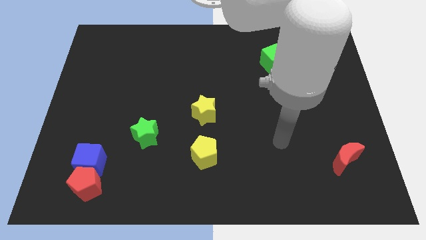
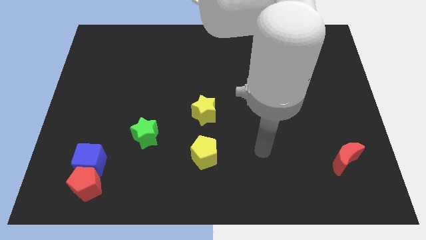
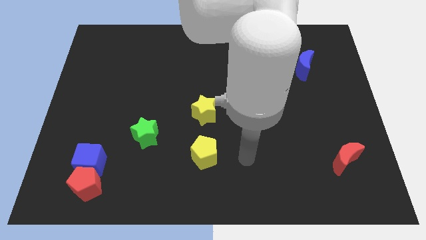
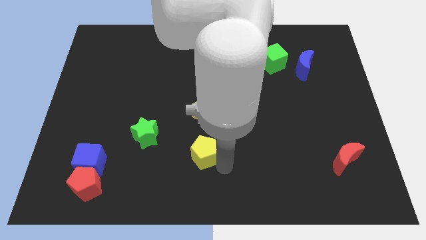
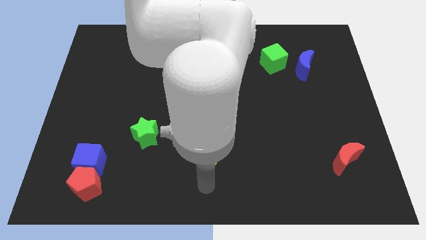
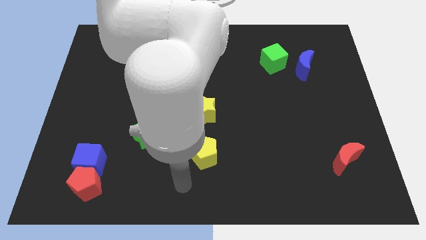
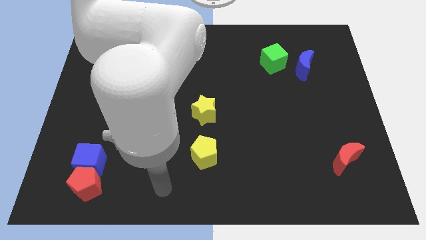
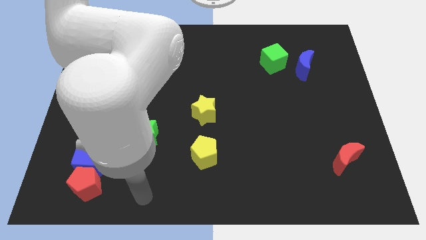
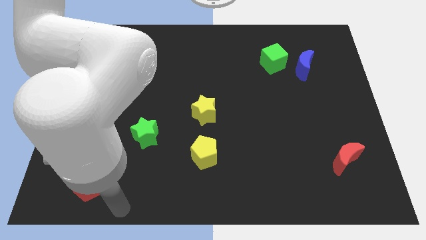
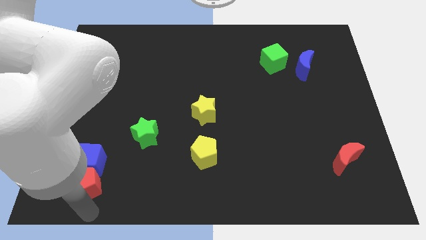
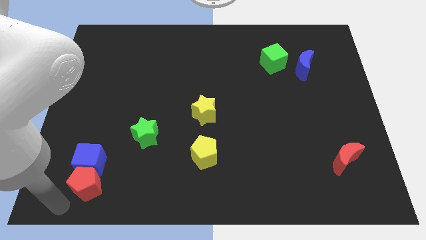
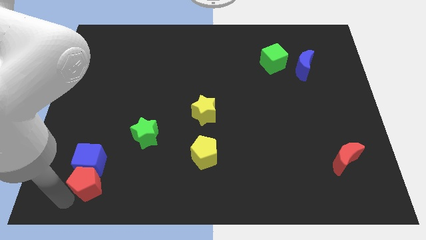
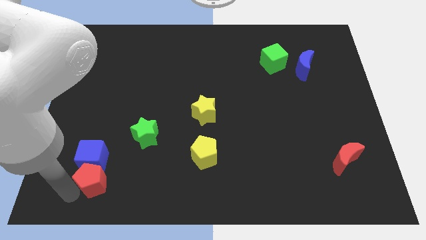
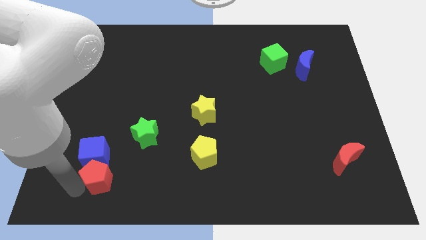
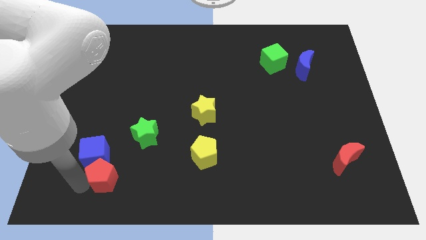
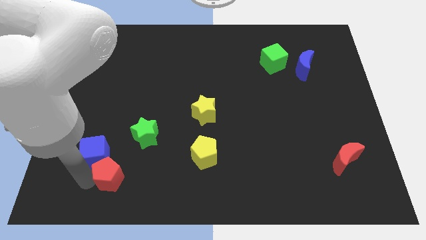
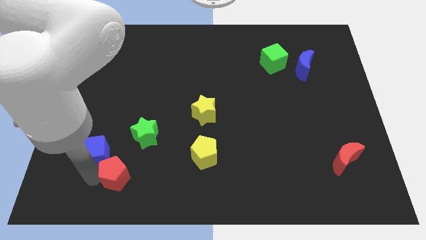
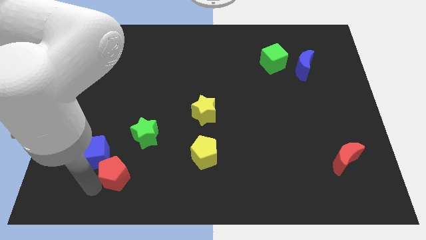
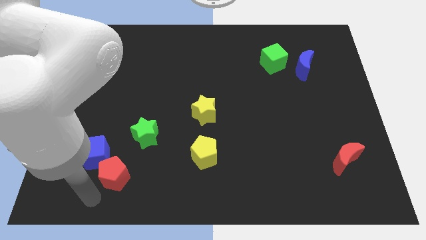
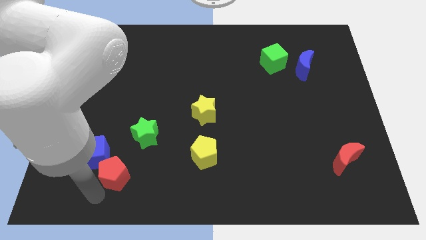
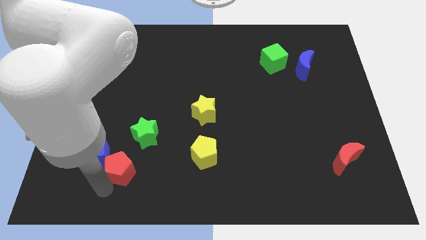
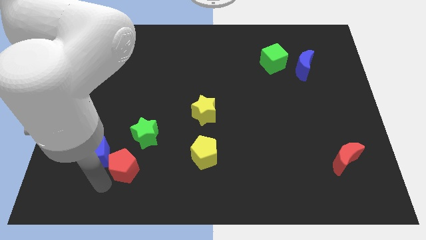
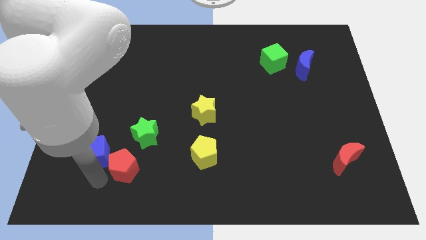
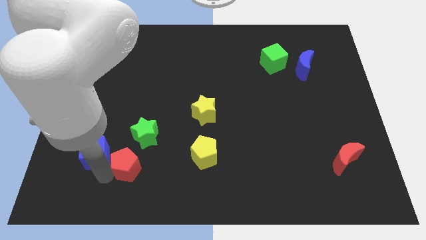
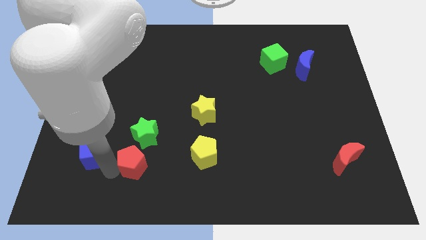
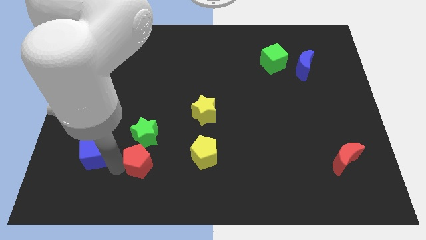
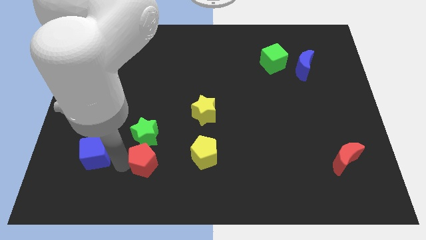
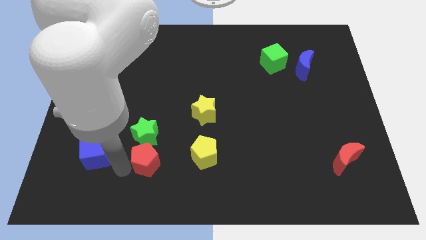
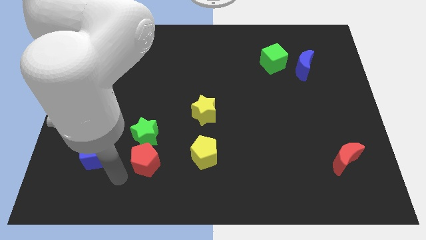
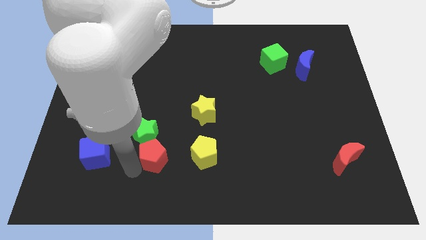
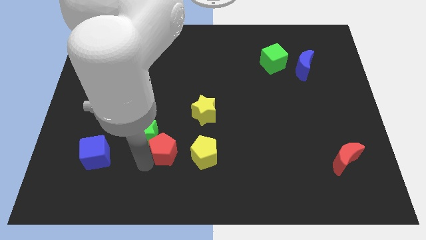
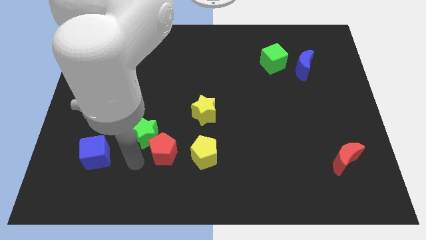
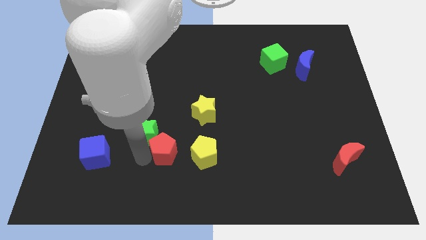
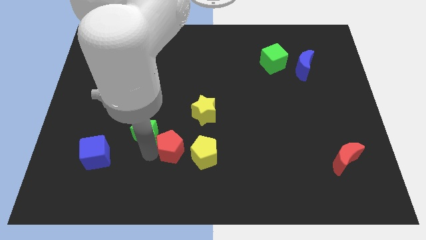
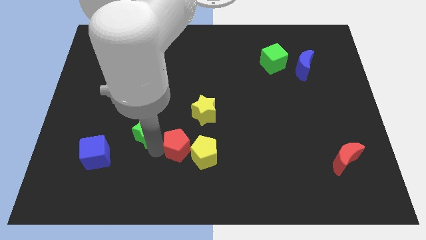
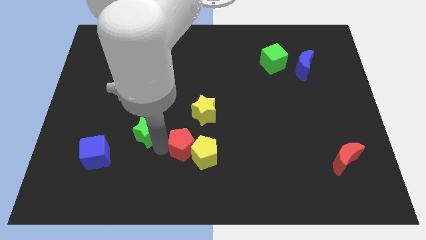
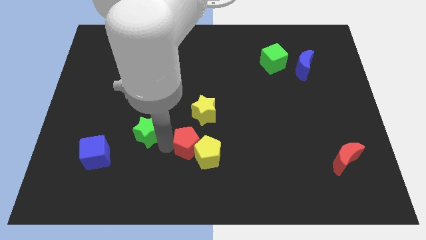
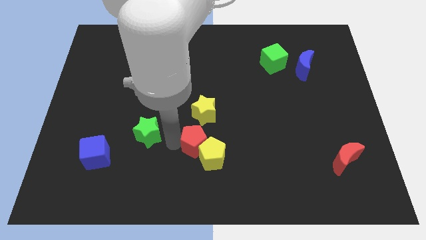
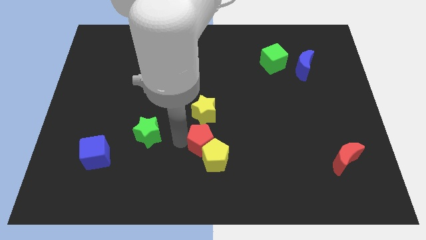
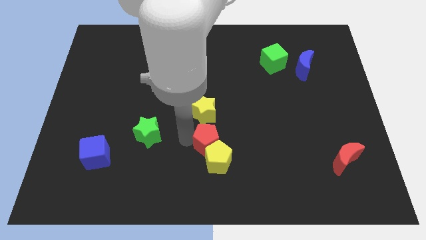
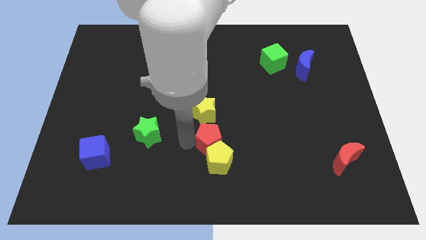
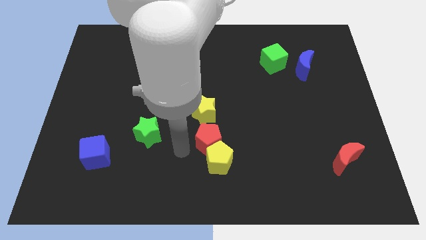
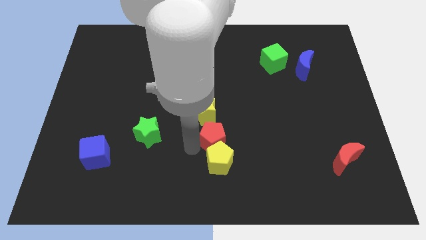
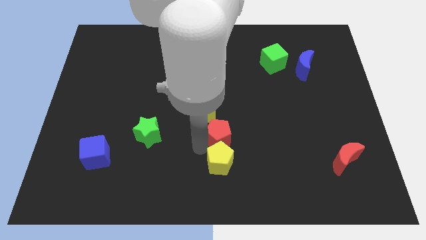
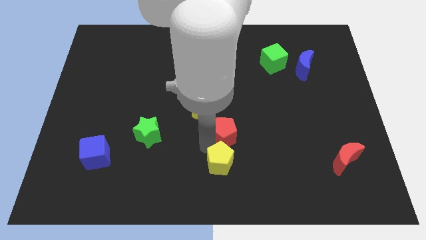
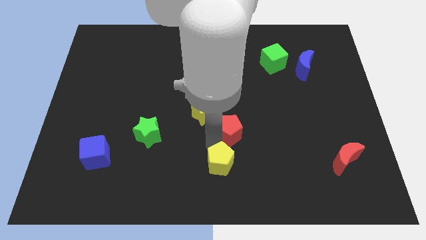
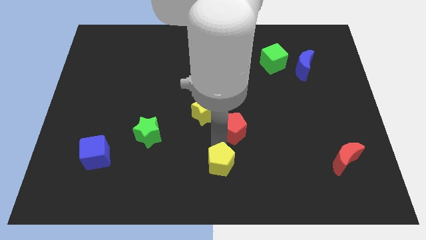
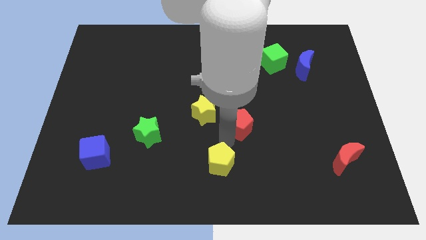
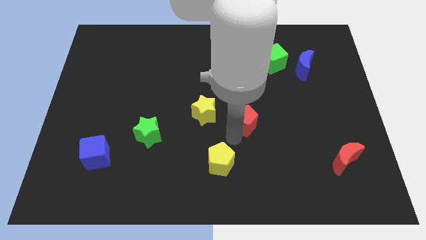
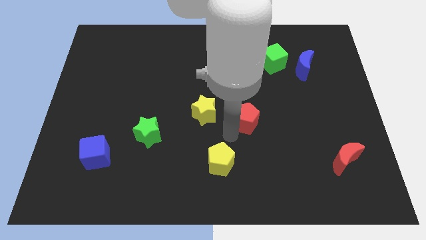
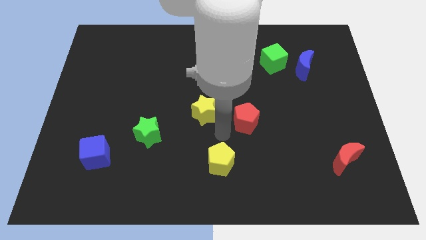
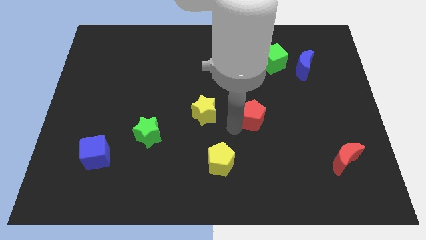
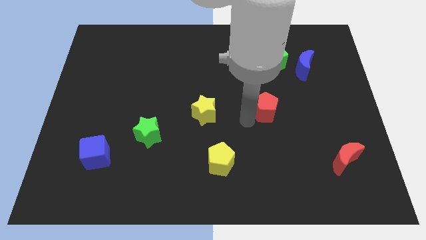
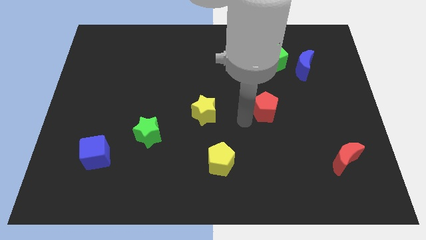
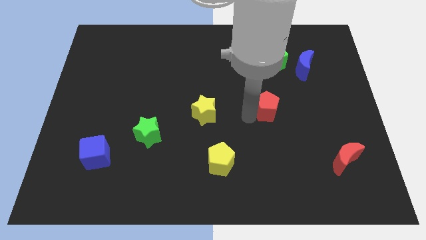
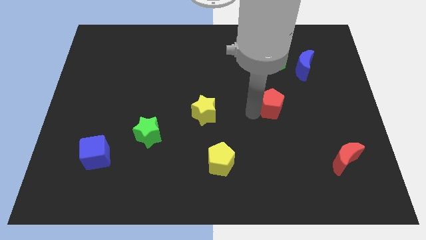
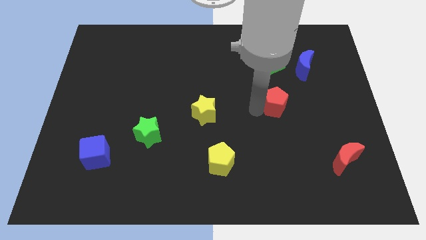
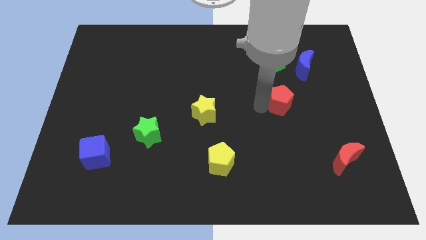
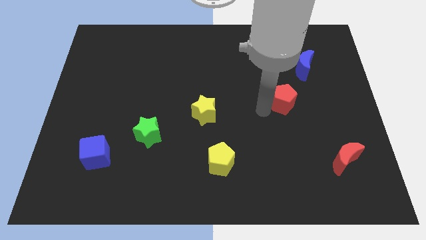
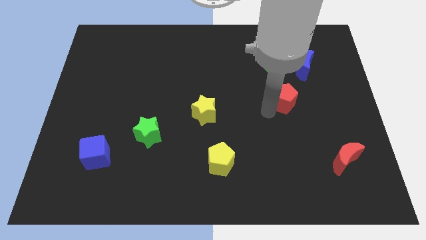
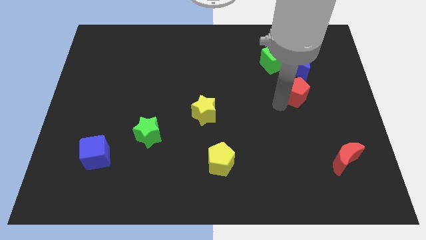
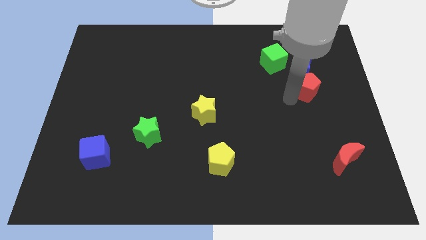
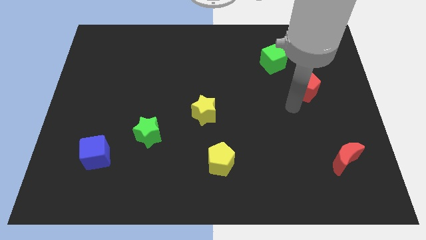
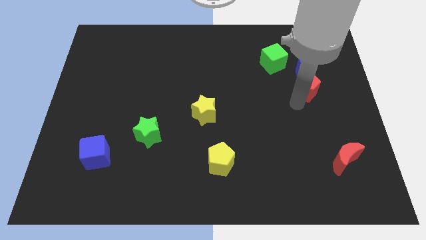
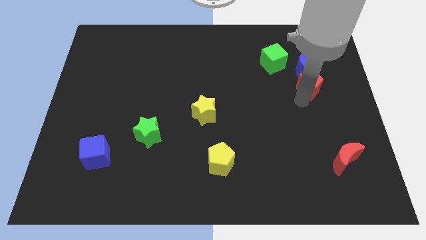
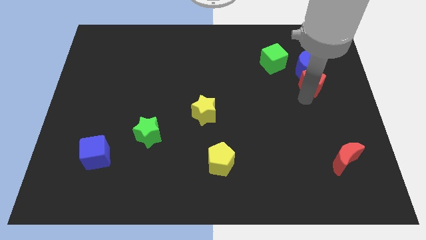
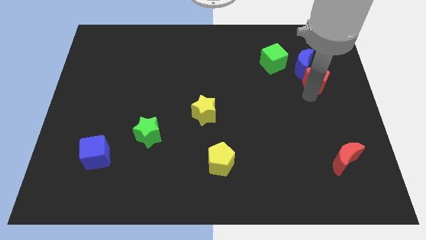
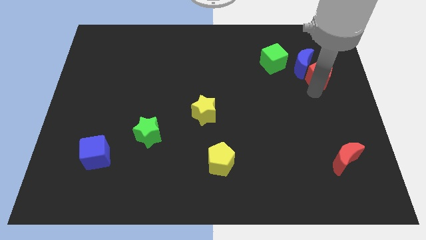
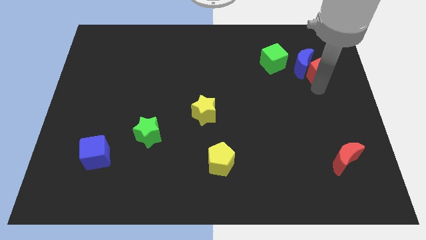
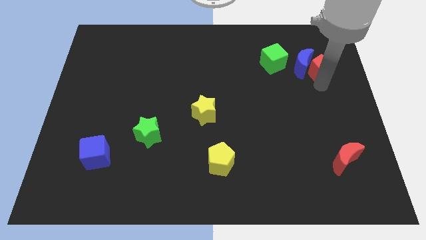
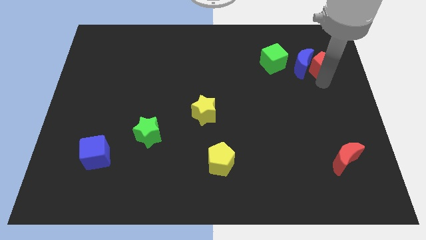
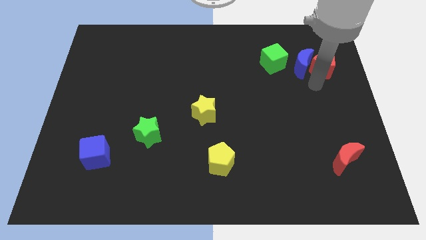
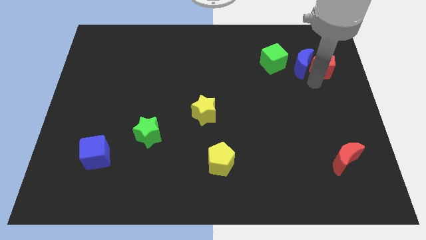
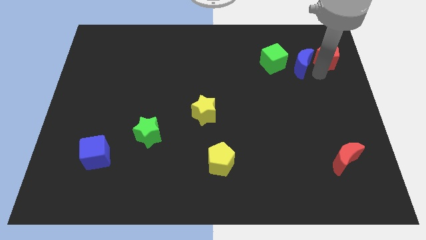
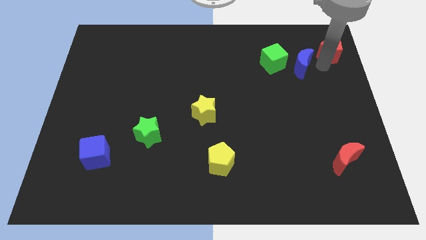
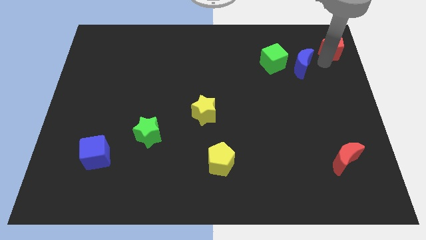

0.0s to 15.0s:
slide the red pentagon to the top right
